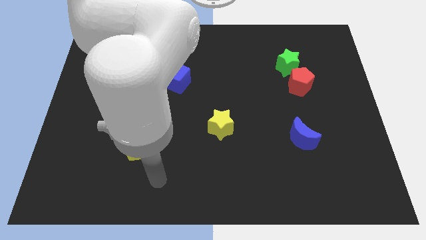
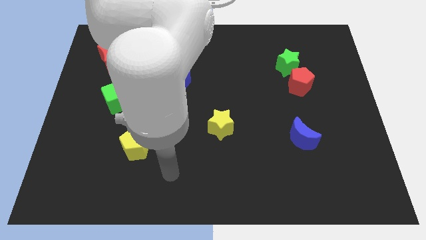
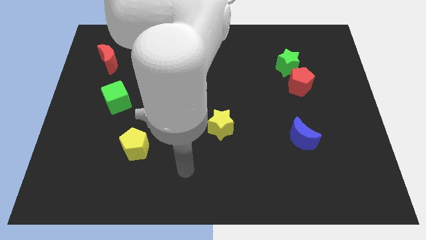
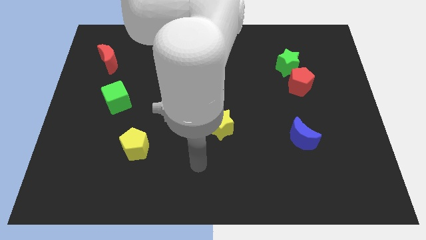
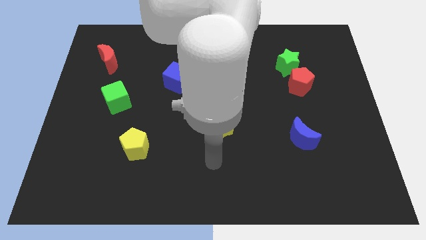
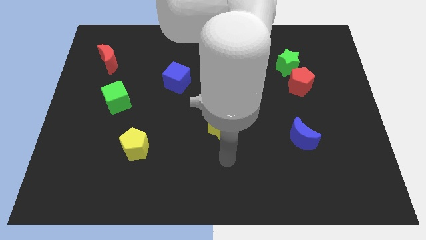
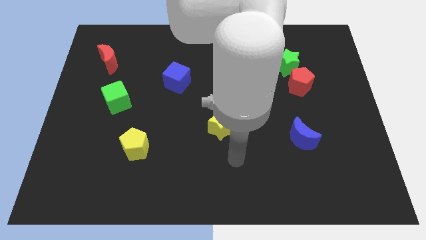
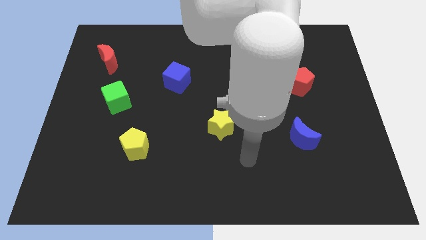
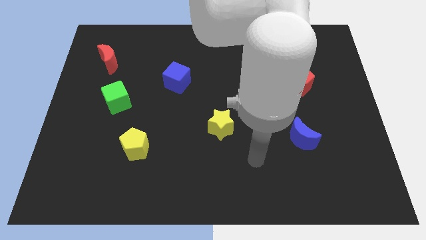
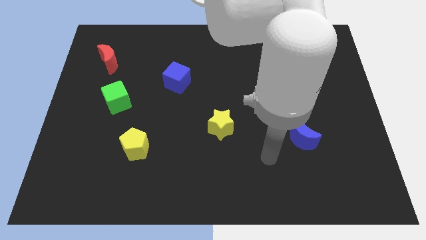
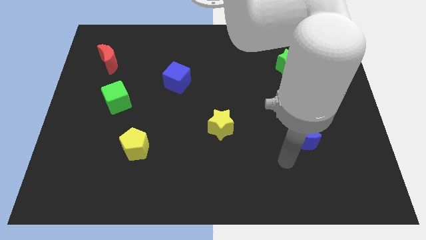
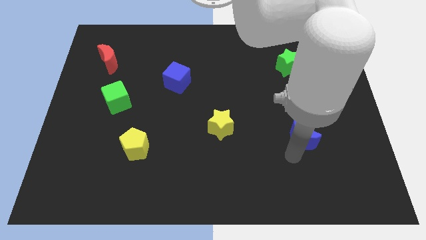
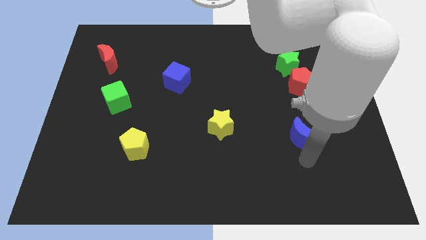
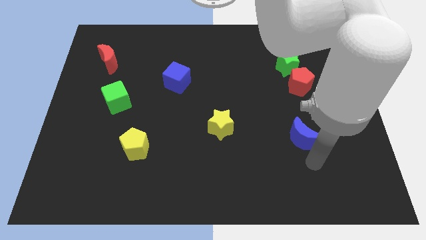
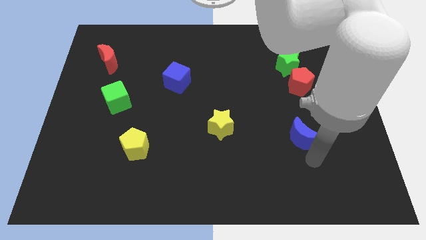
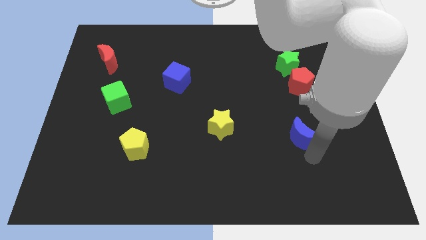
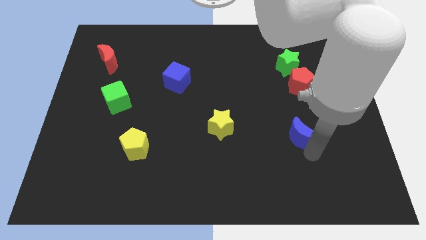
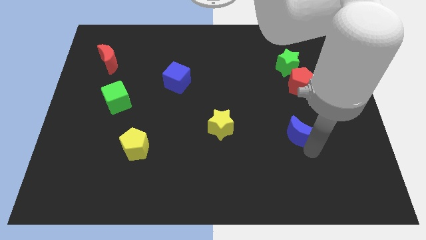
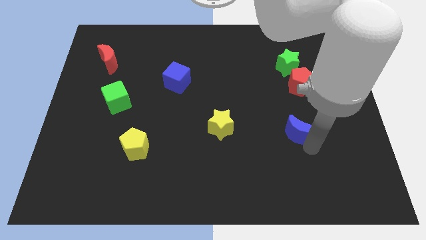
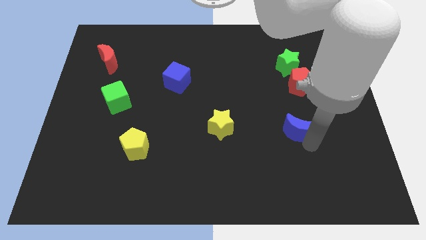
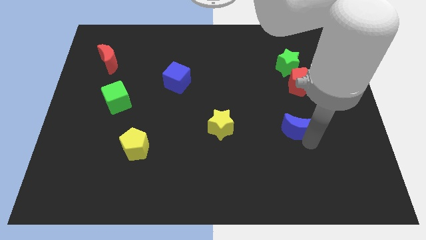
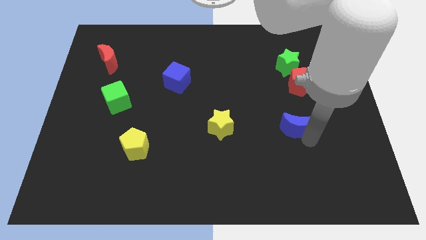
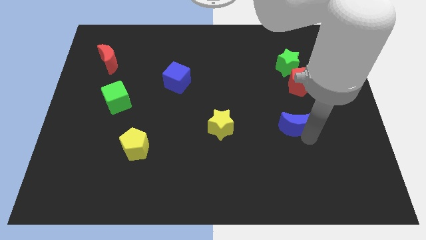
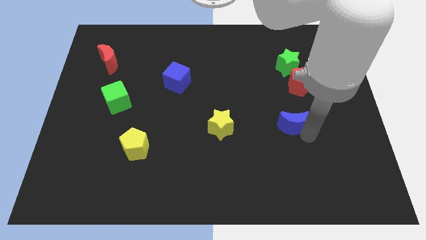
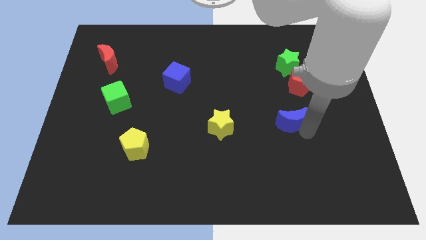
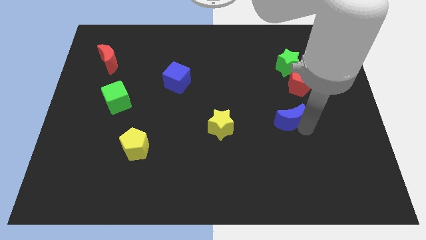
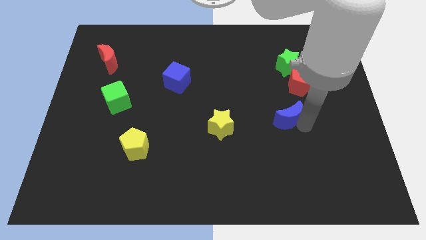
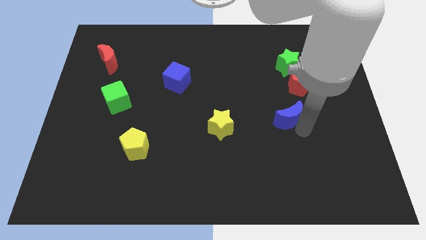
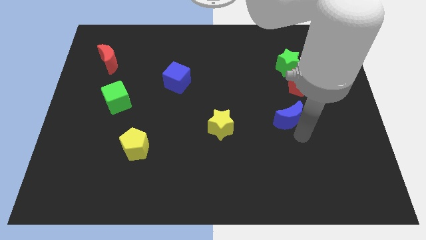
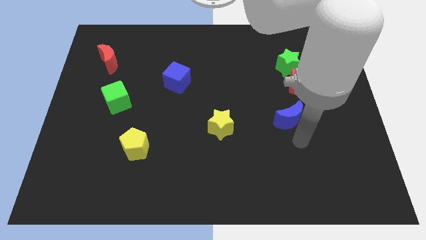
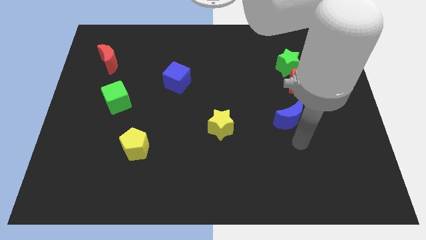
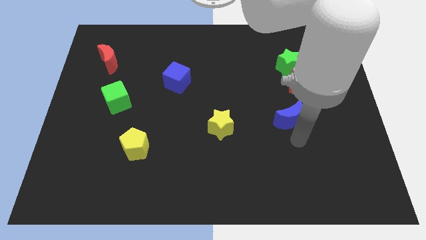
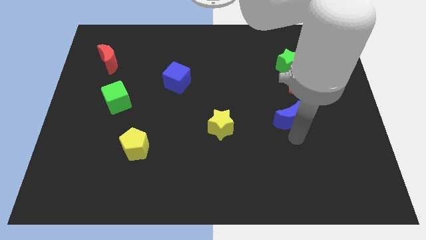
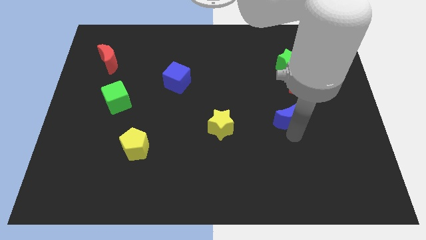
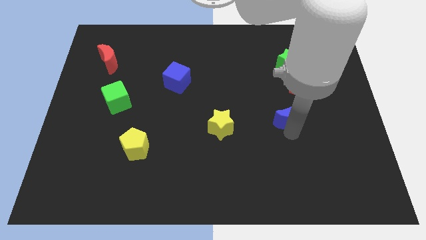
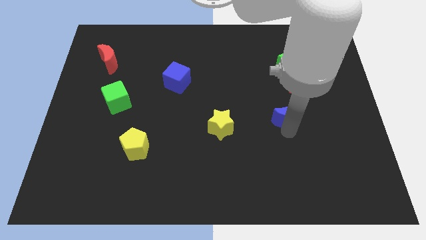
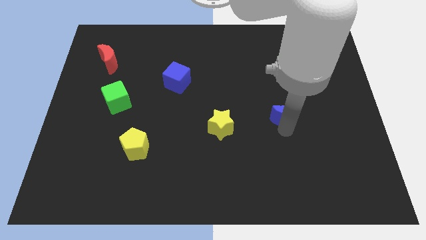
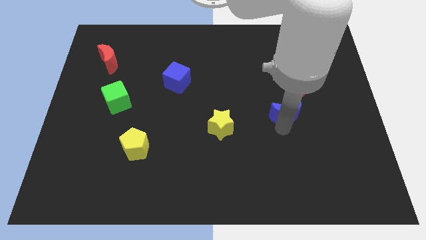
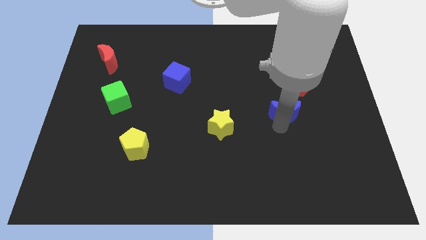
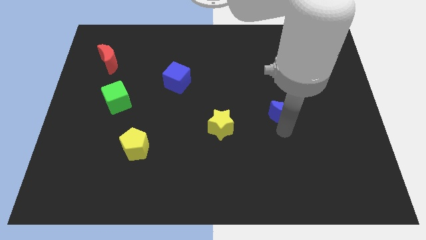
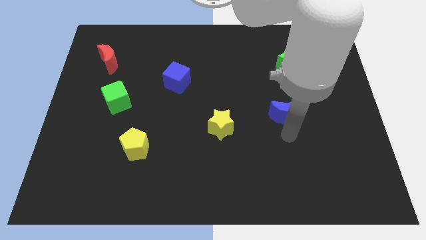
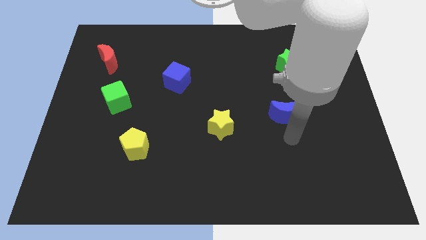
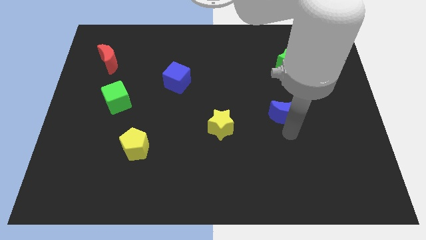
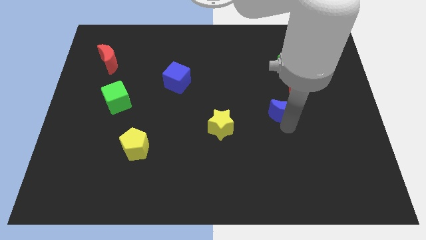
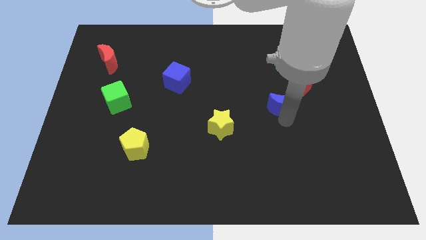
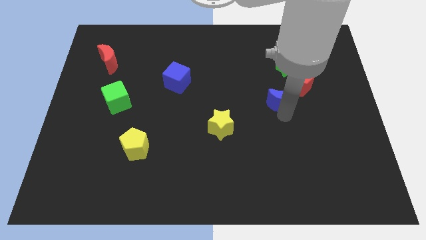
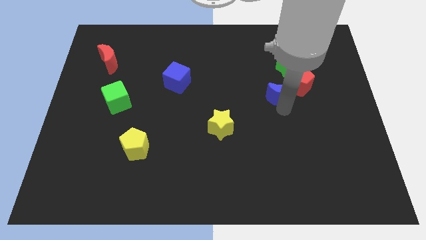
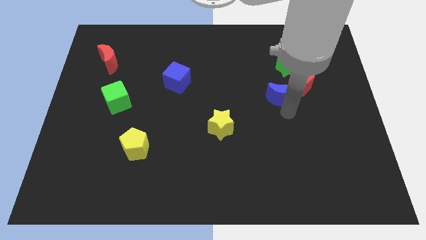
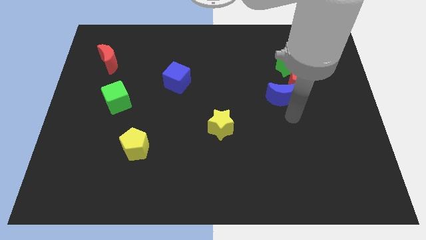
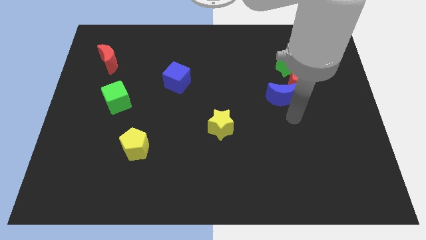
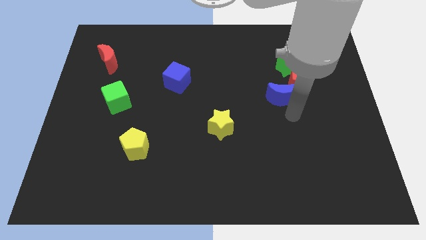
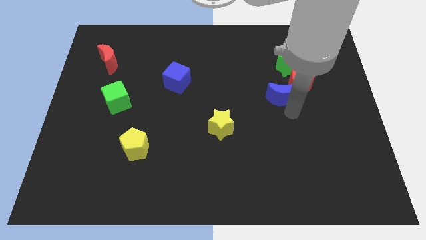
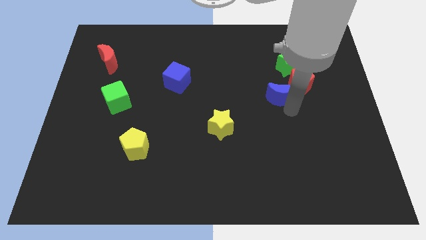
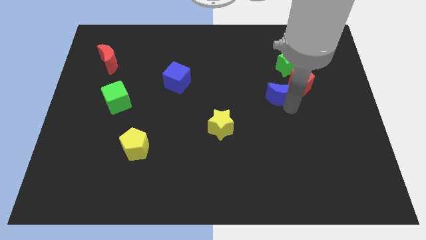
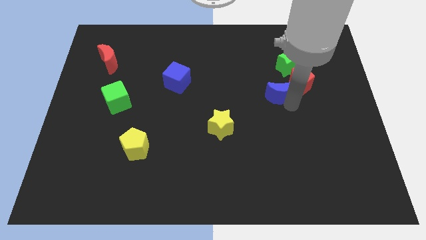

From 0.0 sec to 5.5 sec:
slide the blue moon to the bottom left of the green star
